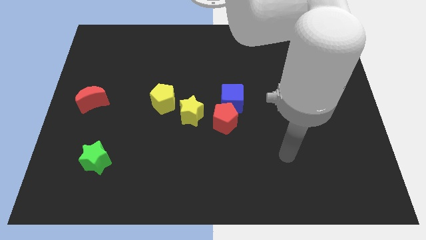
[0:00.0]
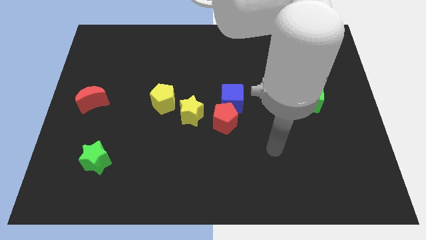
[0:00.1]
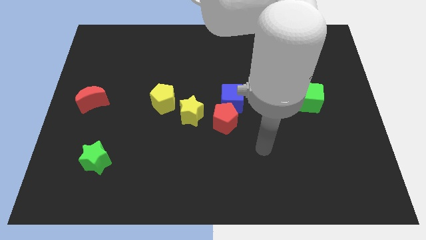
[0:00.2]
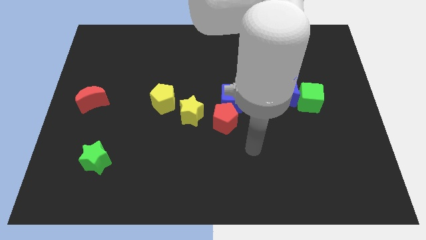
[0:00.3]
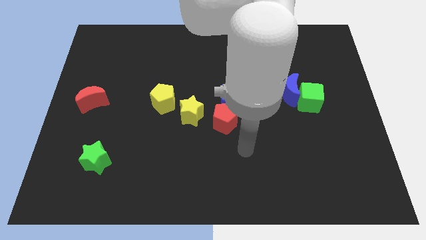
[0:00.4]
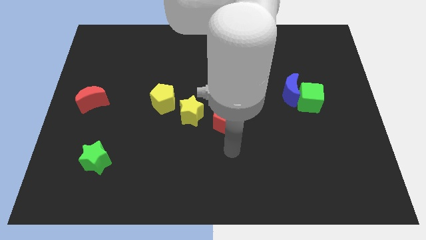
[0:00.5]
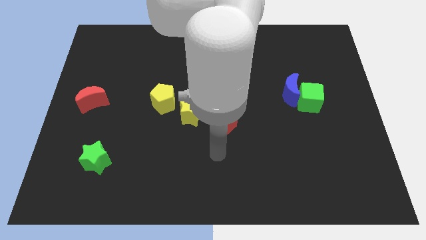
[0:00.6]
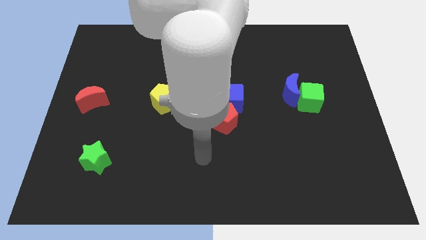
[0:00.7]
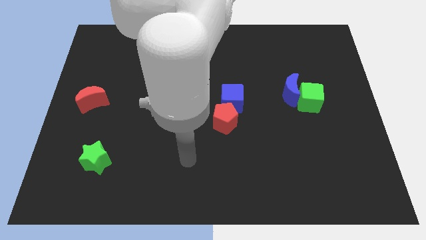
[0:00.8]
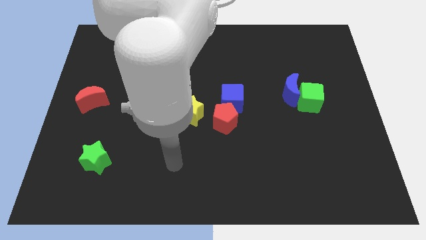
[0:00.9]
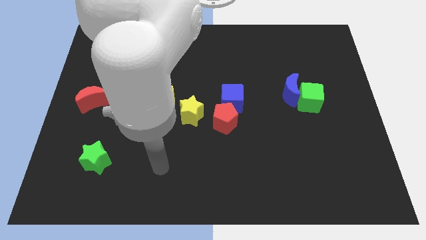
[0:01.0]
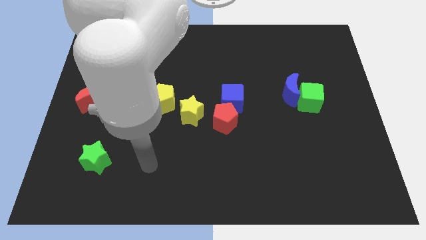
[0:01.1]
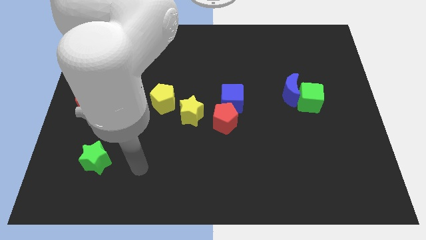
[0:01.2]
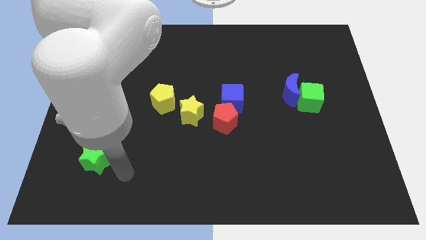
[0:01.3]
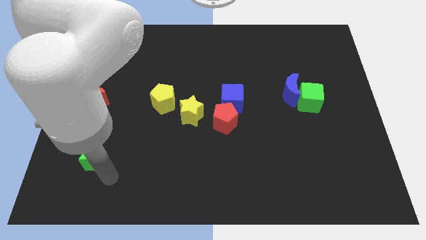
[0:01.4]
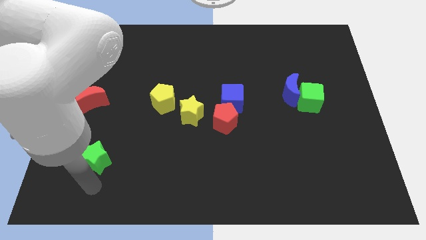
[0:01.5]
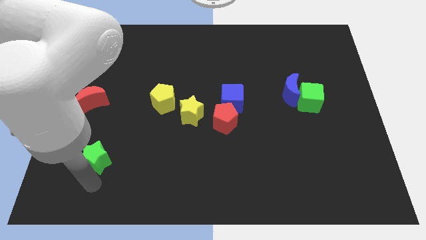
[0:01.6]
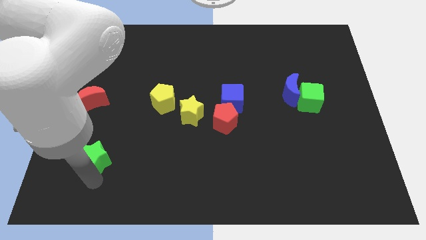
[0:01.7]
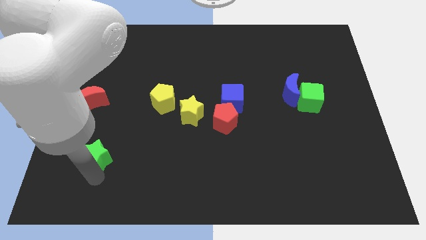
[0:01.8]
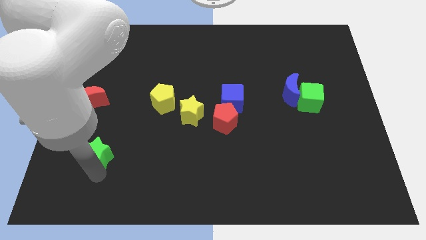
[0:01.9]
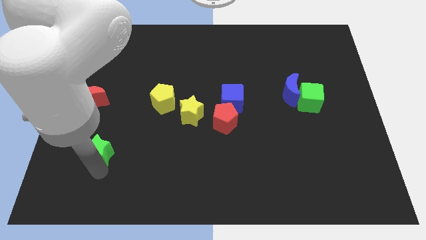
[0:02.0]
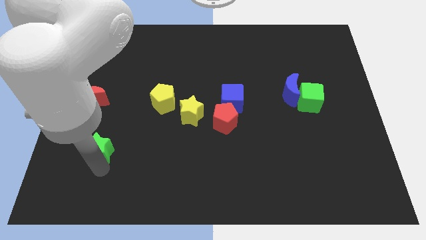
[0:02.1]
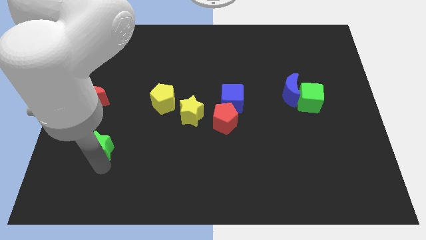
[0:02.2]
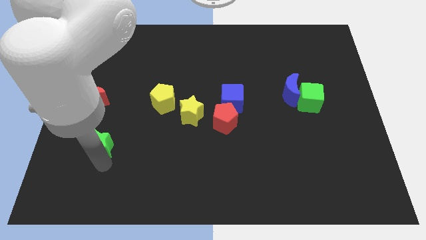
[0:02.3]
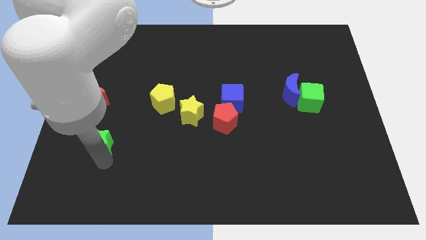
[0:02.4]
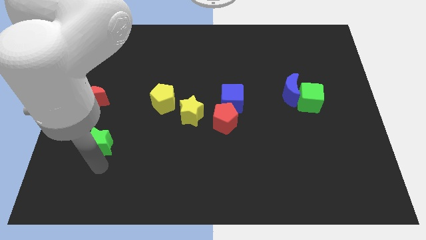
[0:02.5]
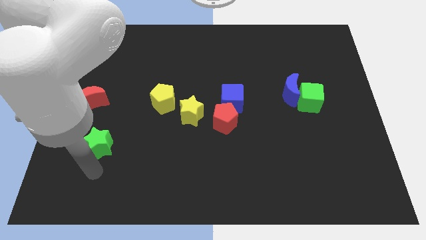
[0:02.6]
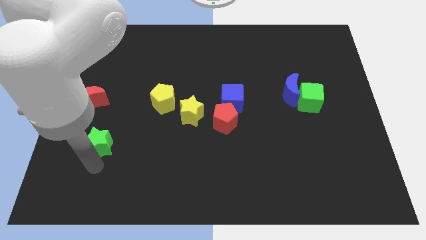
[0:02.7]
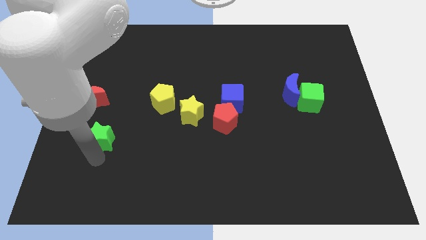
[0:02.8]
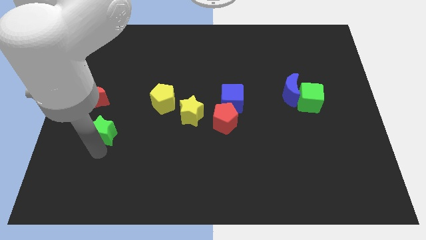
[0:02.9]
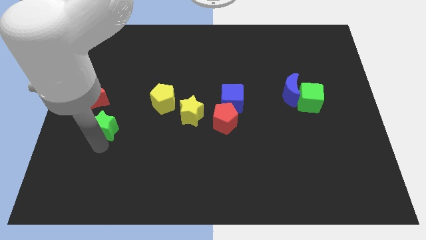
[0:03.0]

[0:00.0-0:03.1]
push the green star upwards a little bit

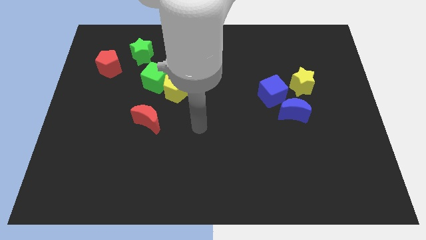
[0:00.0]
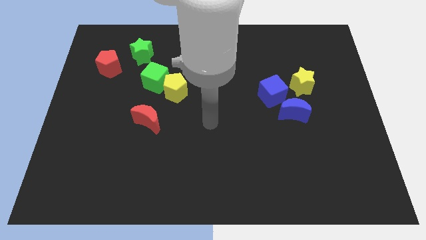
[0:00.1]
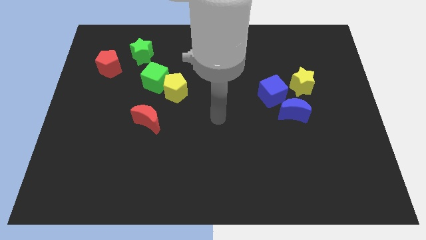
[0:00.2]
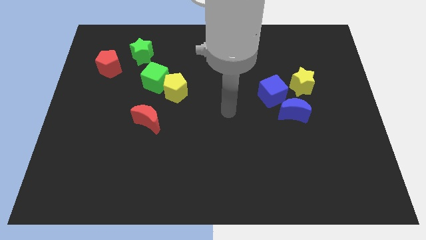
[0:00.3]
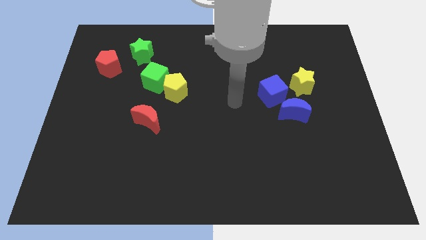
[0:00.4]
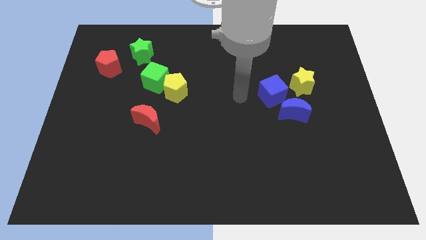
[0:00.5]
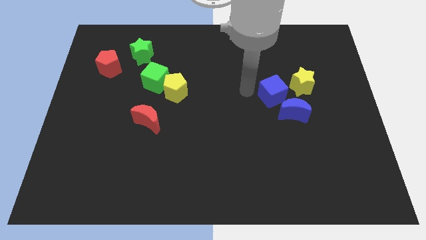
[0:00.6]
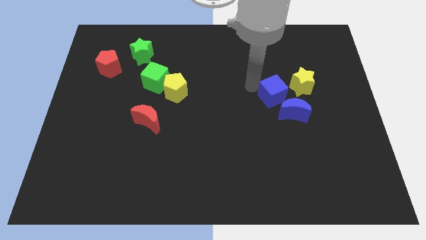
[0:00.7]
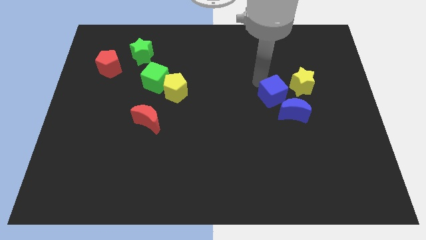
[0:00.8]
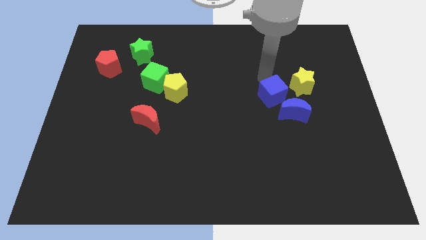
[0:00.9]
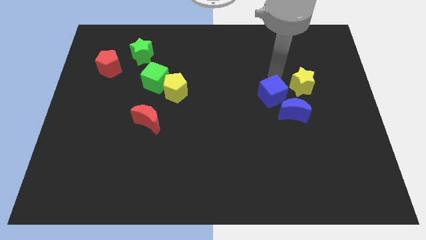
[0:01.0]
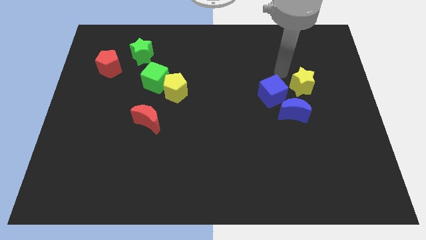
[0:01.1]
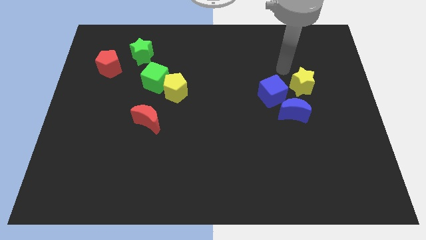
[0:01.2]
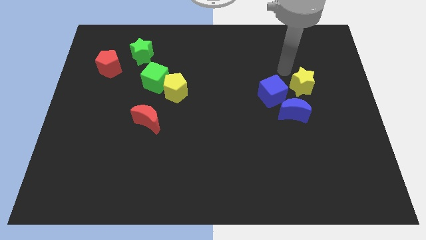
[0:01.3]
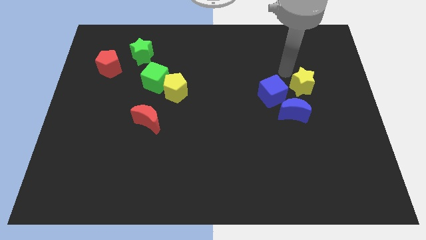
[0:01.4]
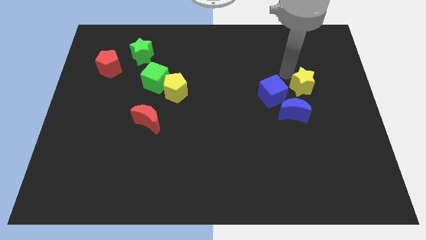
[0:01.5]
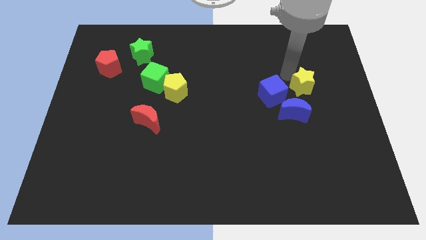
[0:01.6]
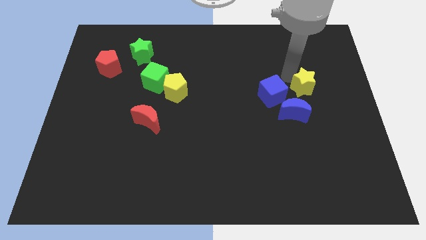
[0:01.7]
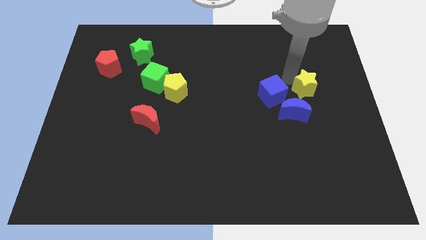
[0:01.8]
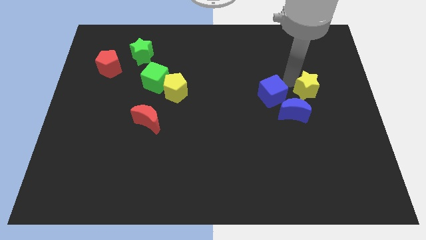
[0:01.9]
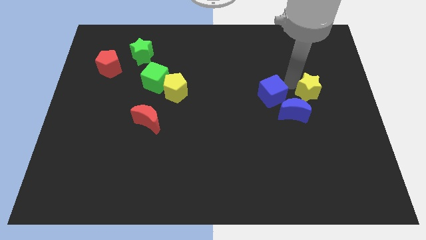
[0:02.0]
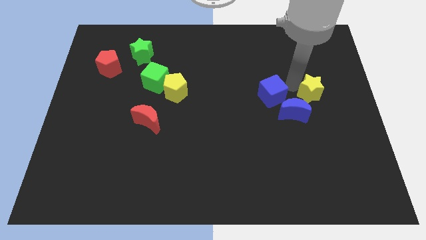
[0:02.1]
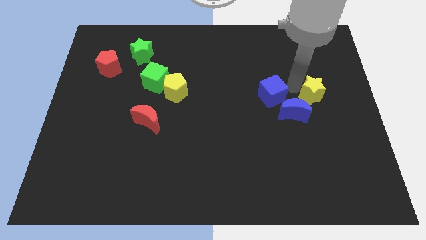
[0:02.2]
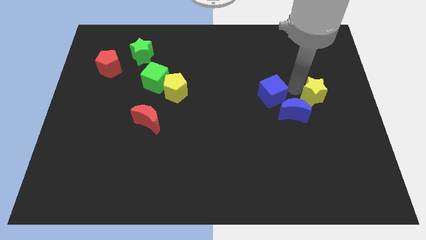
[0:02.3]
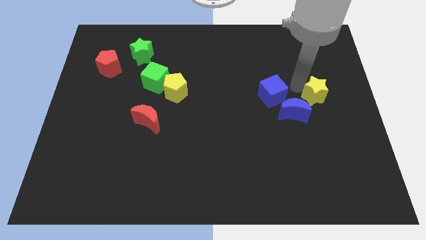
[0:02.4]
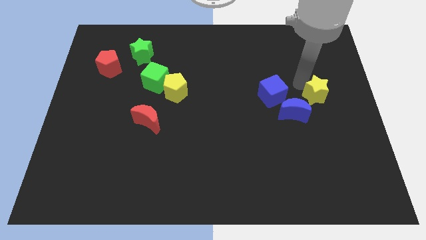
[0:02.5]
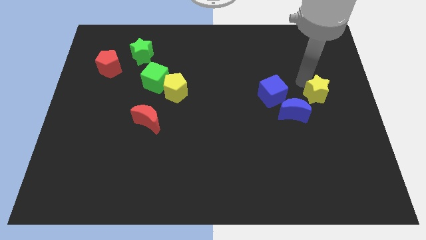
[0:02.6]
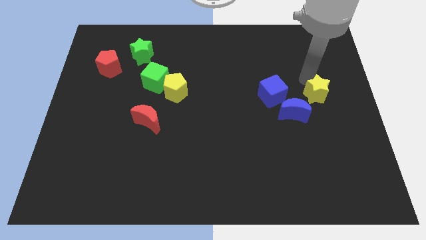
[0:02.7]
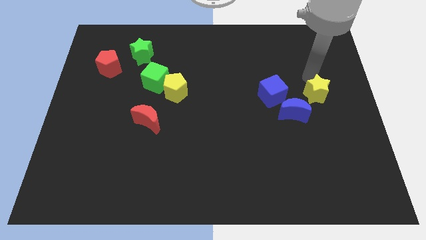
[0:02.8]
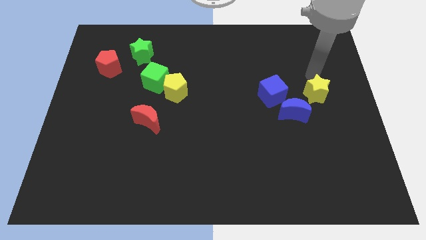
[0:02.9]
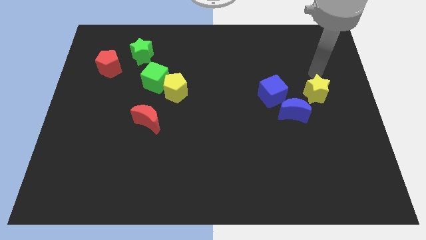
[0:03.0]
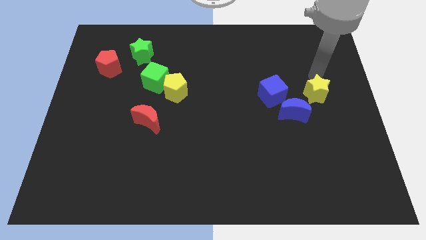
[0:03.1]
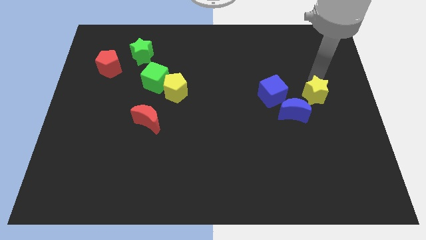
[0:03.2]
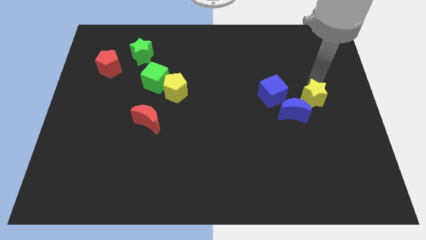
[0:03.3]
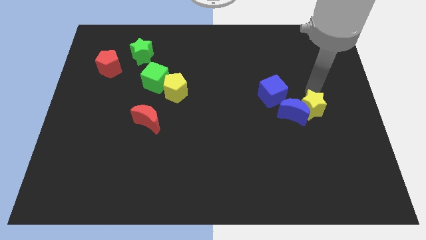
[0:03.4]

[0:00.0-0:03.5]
slide the yellow star down somewhat

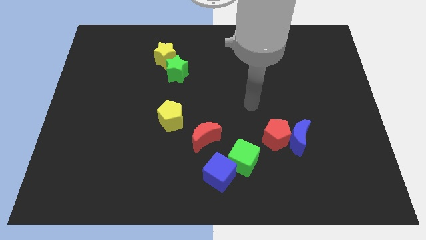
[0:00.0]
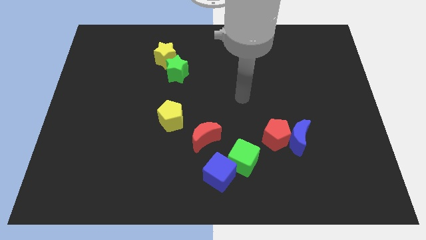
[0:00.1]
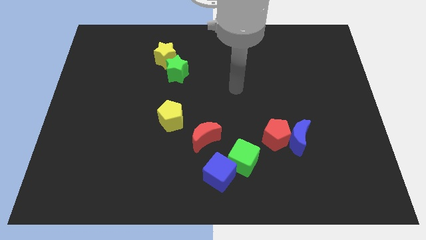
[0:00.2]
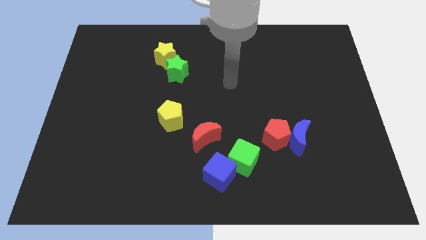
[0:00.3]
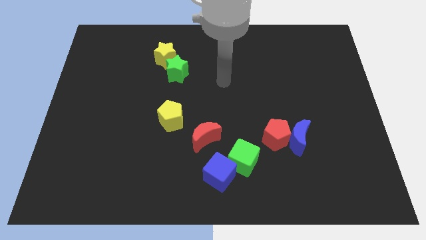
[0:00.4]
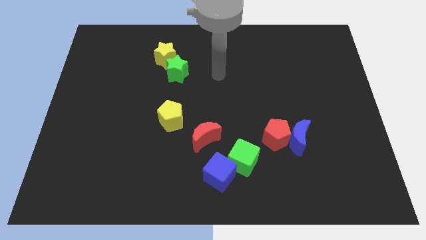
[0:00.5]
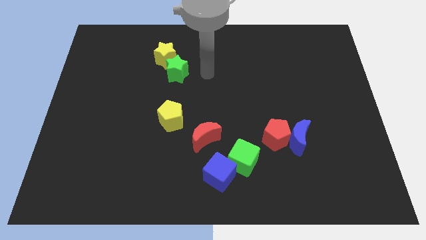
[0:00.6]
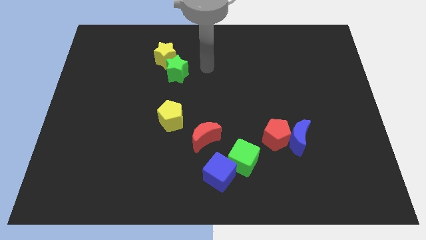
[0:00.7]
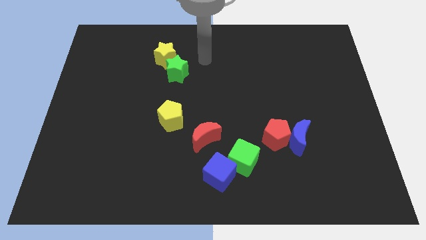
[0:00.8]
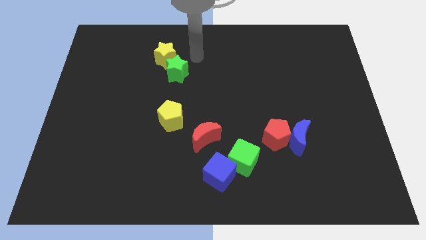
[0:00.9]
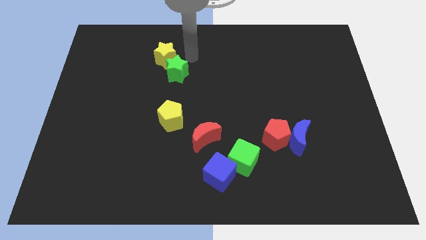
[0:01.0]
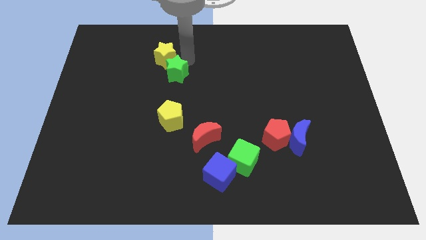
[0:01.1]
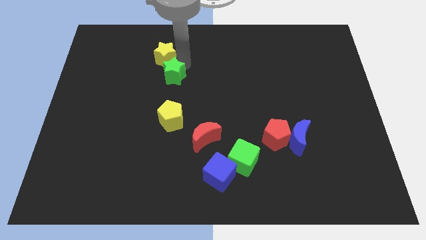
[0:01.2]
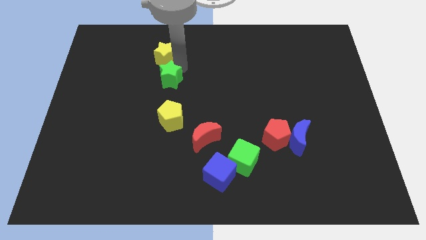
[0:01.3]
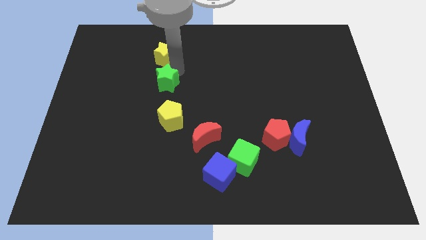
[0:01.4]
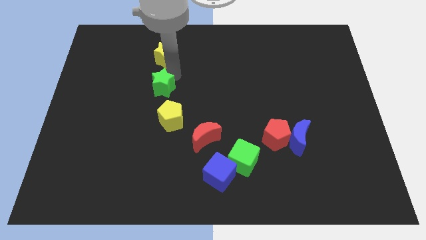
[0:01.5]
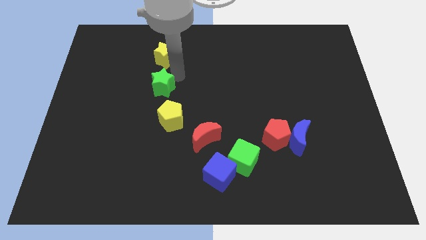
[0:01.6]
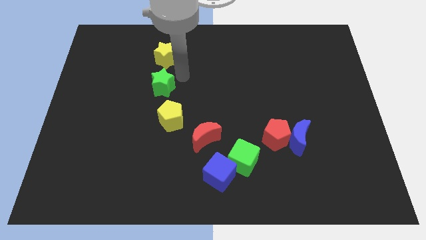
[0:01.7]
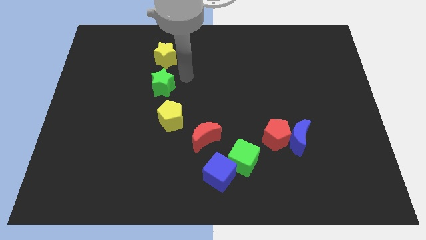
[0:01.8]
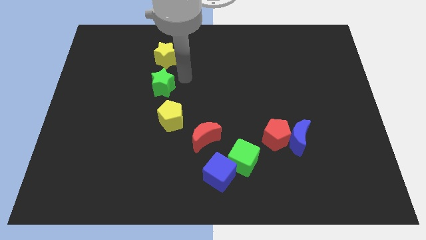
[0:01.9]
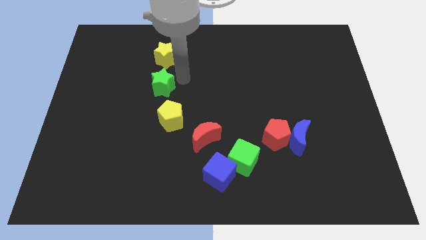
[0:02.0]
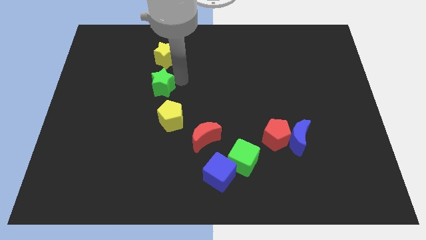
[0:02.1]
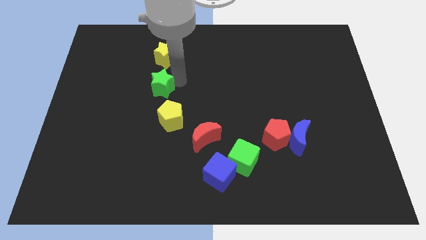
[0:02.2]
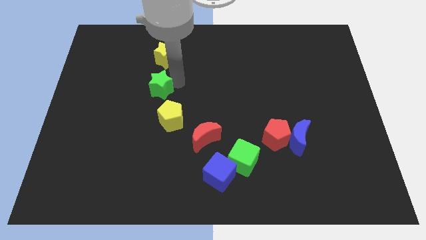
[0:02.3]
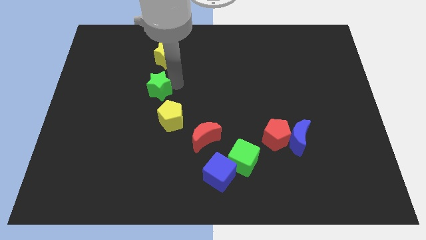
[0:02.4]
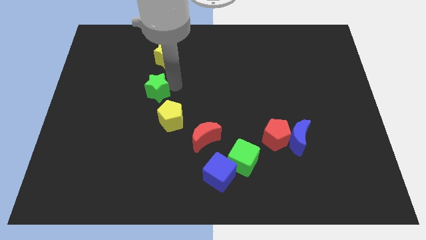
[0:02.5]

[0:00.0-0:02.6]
slightly move the green star downwards and to the left diagonally
